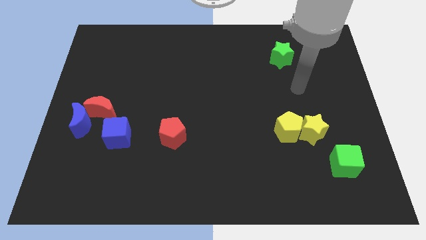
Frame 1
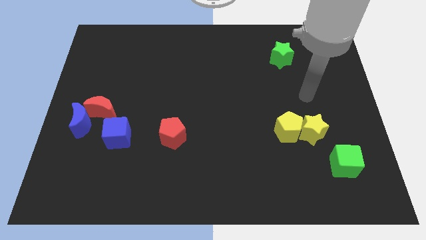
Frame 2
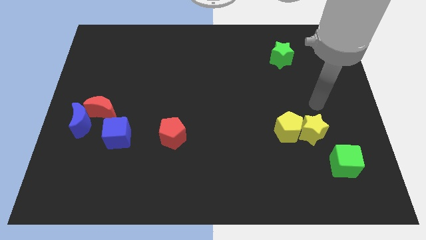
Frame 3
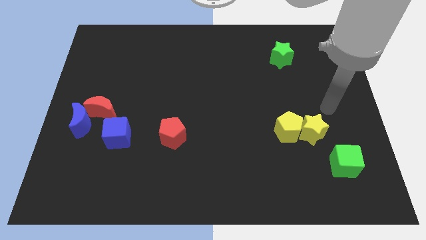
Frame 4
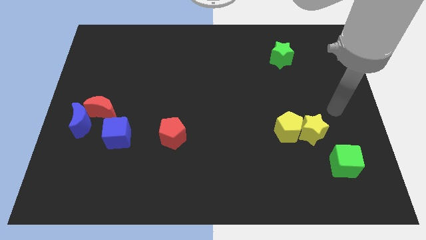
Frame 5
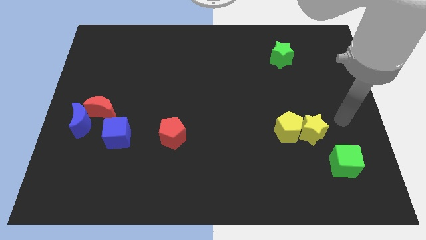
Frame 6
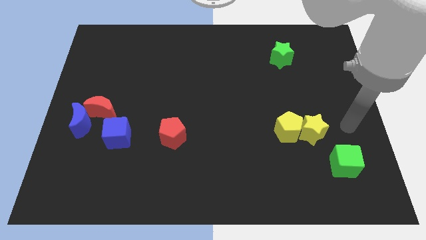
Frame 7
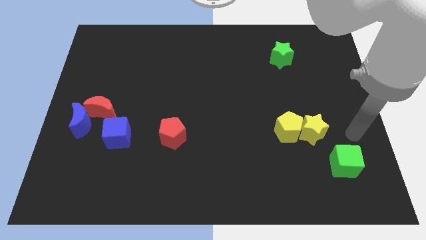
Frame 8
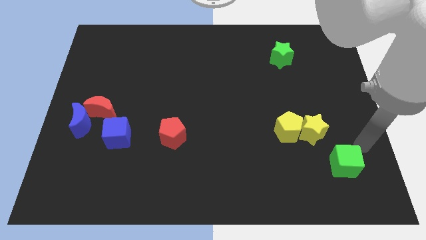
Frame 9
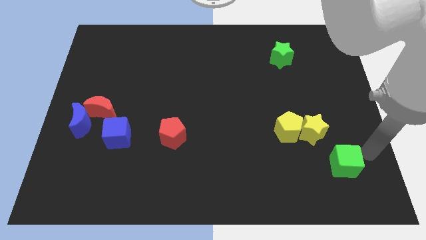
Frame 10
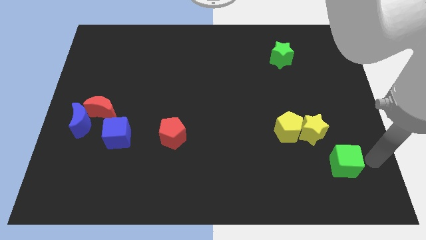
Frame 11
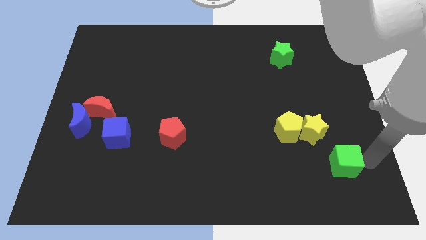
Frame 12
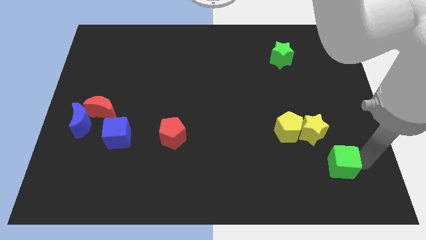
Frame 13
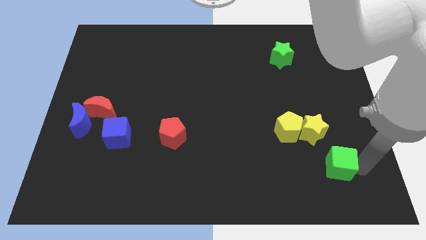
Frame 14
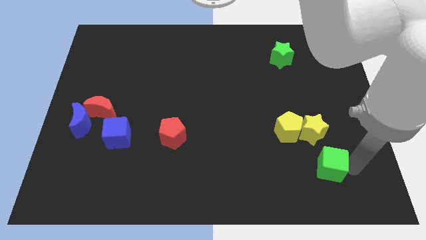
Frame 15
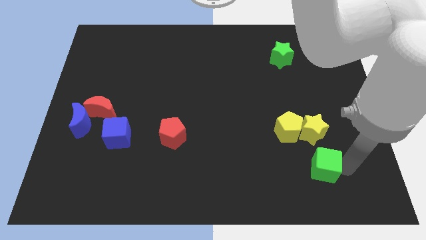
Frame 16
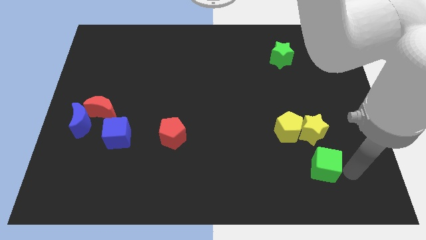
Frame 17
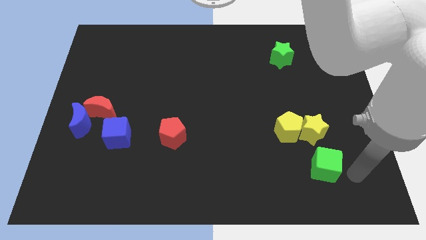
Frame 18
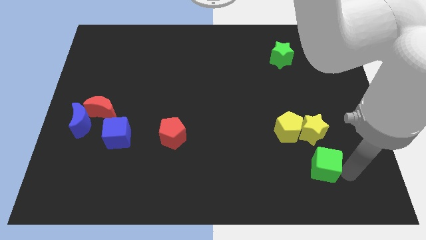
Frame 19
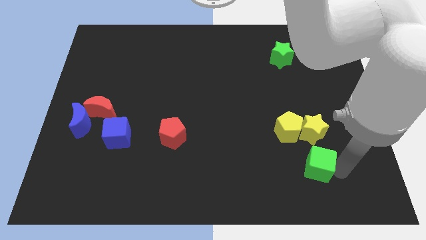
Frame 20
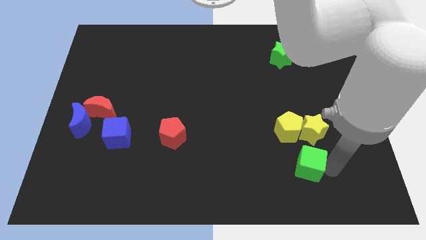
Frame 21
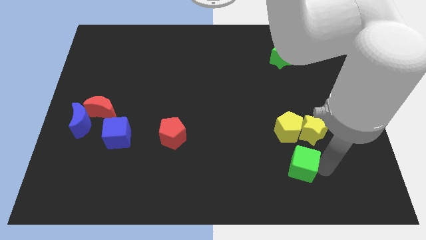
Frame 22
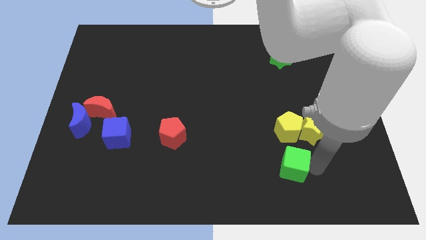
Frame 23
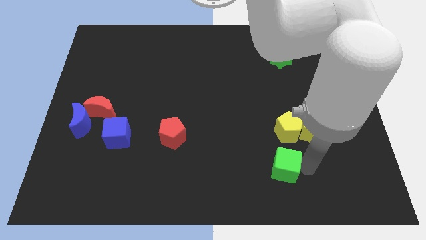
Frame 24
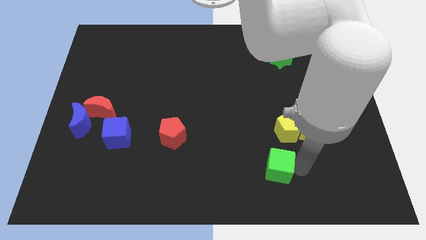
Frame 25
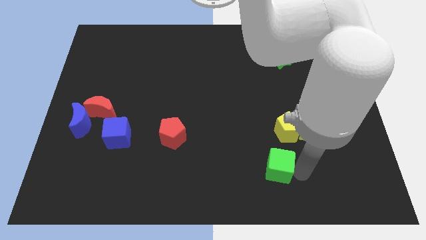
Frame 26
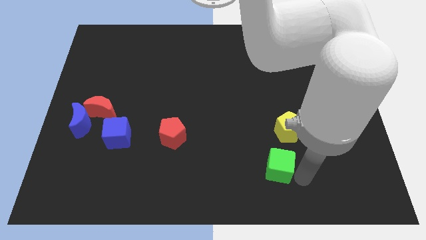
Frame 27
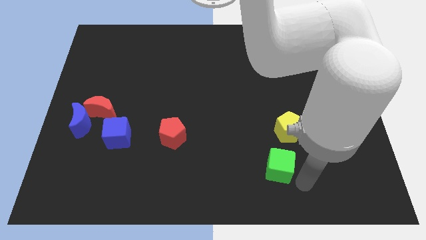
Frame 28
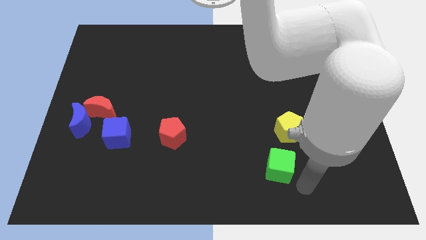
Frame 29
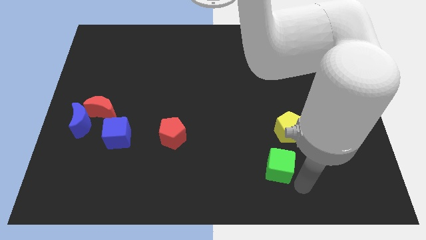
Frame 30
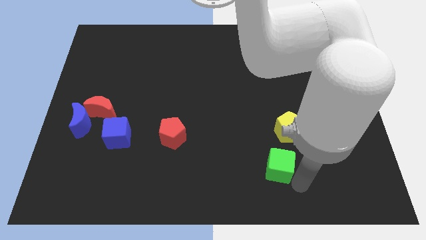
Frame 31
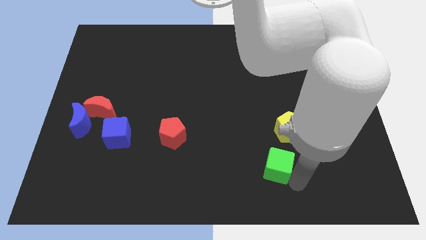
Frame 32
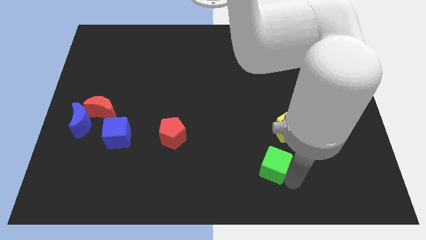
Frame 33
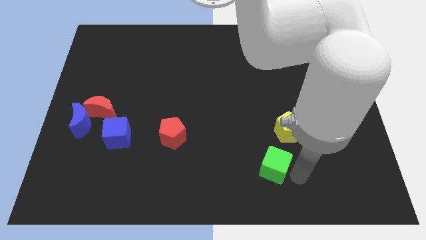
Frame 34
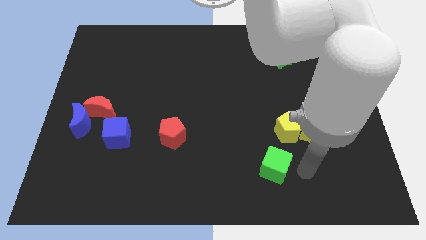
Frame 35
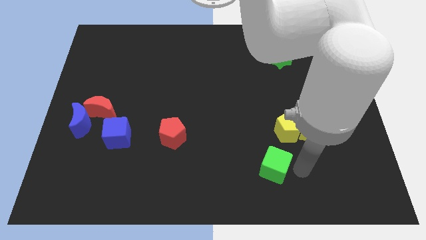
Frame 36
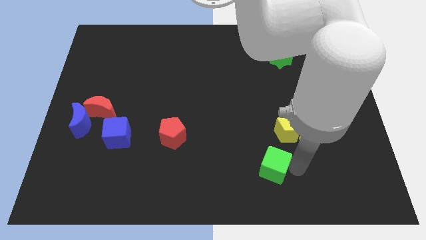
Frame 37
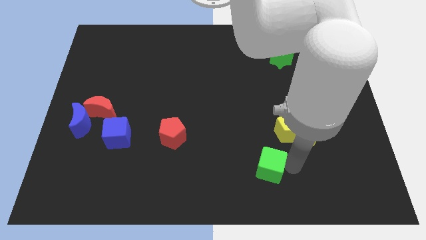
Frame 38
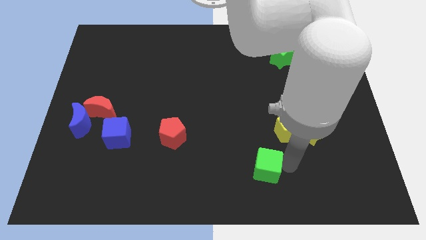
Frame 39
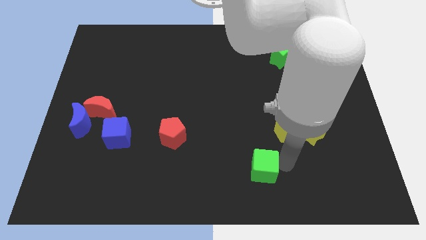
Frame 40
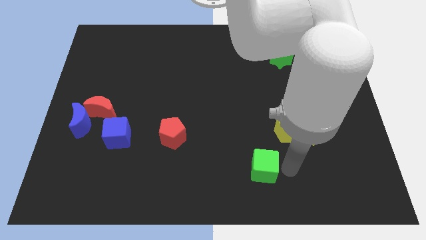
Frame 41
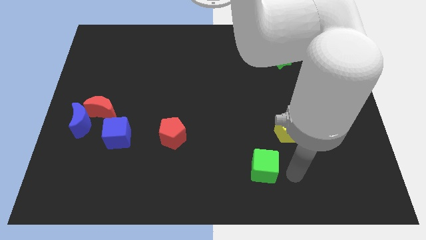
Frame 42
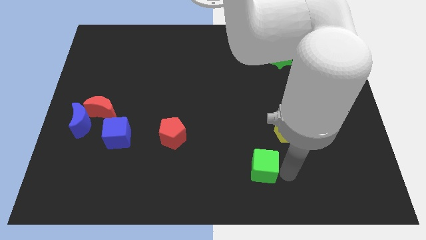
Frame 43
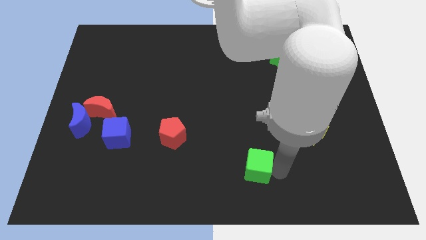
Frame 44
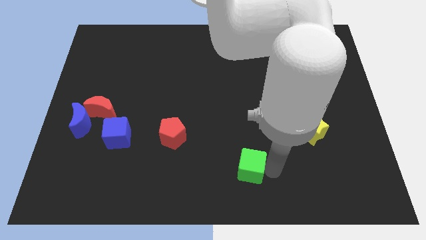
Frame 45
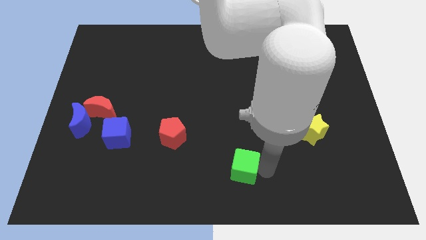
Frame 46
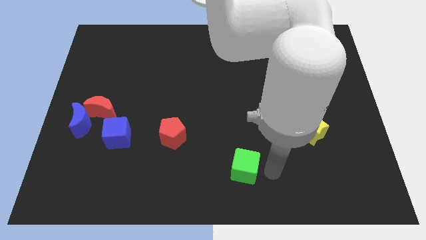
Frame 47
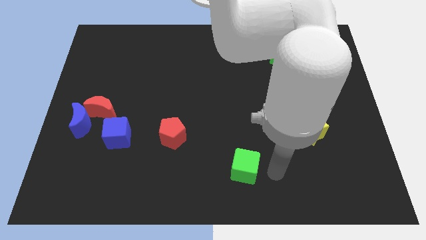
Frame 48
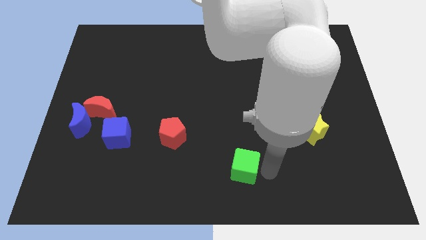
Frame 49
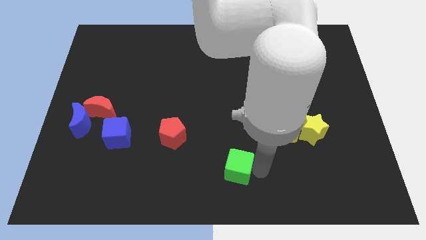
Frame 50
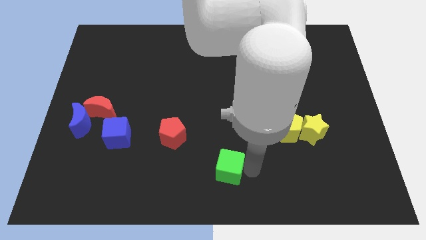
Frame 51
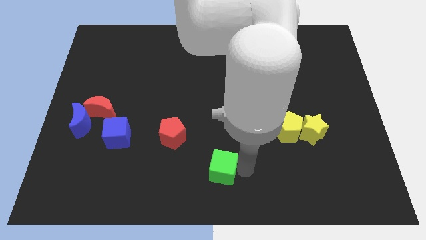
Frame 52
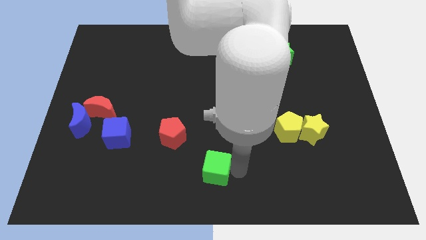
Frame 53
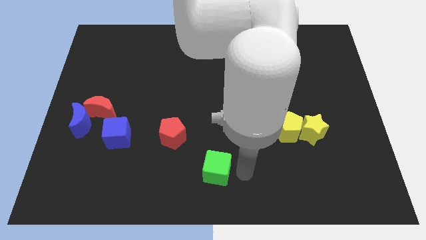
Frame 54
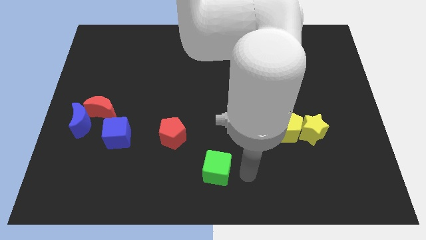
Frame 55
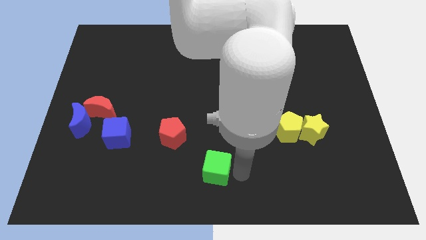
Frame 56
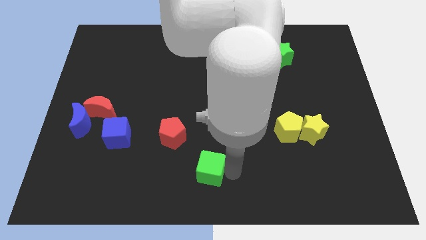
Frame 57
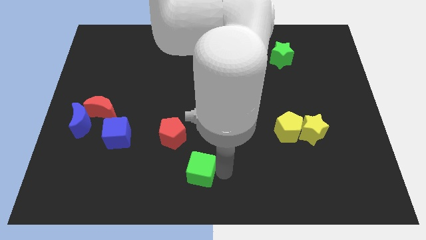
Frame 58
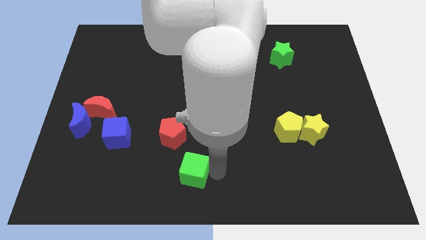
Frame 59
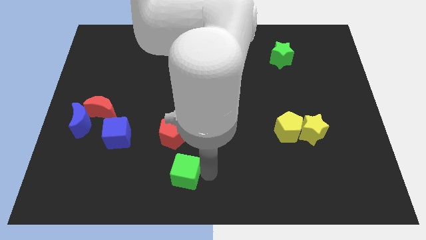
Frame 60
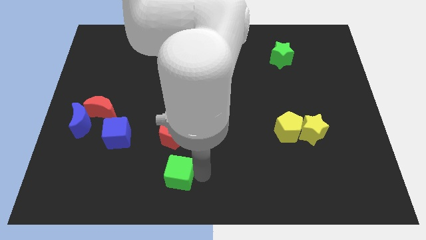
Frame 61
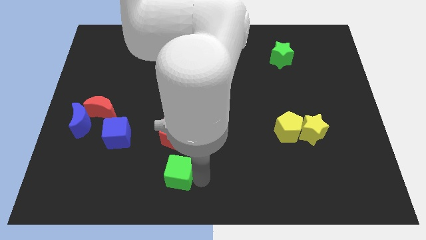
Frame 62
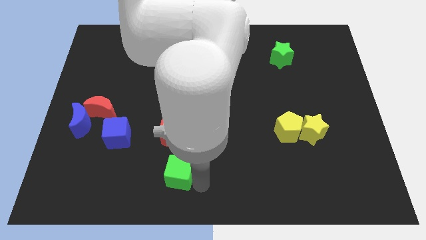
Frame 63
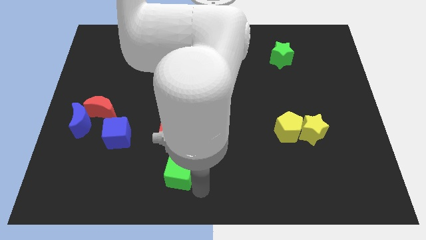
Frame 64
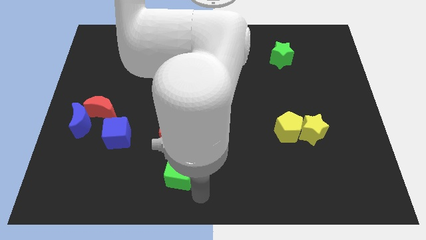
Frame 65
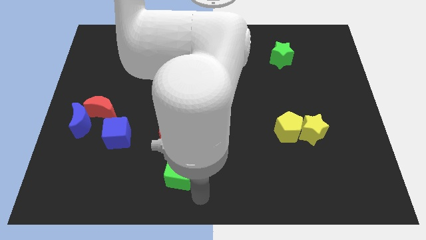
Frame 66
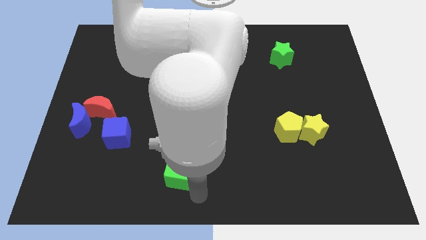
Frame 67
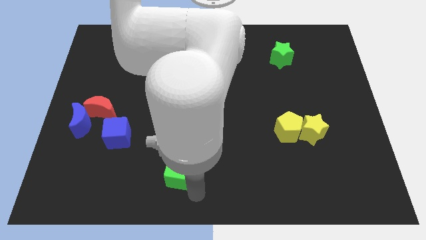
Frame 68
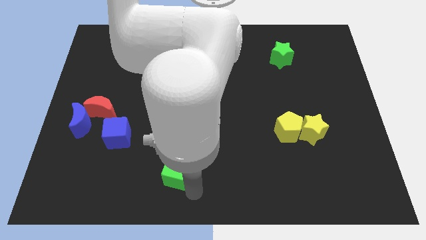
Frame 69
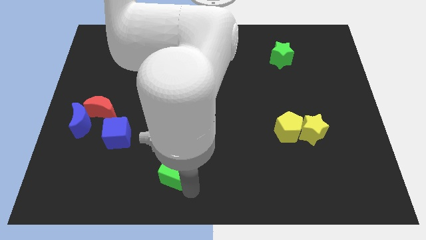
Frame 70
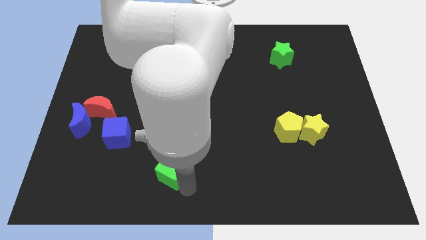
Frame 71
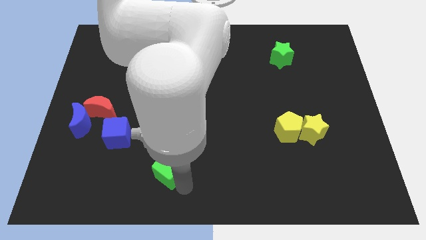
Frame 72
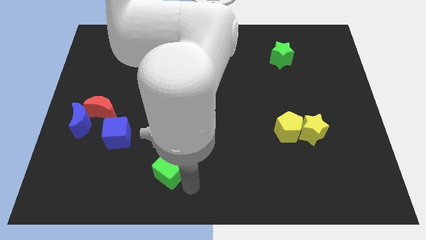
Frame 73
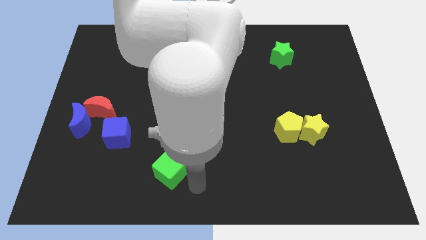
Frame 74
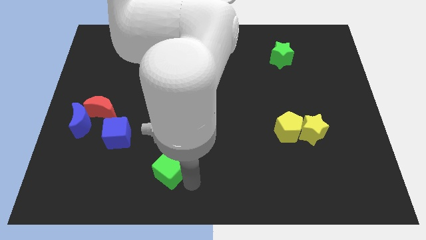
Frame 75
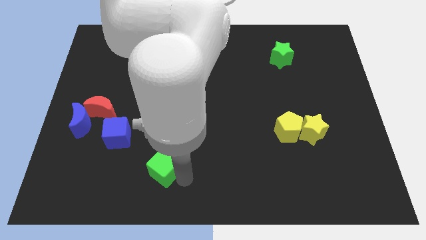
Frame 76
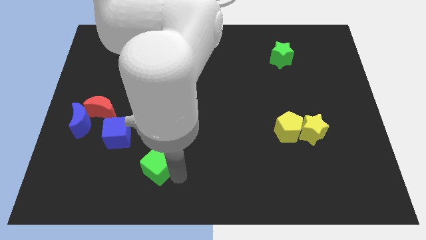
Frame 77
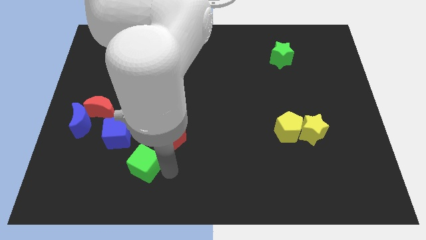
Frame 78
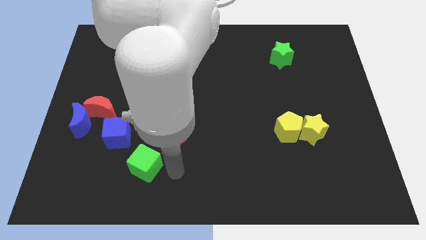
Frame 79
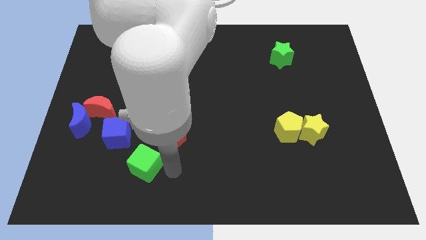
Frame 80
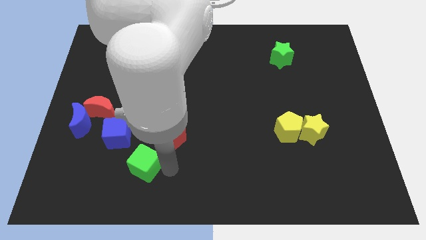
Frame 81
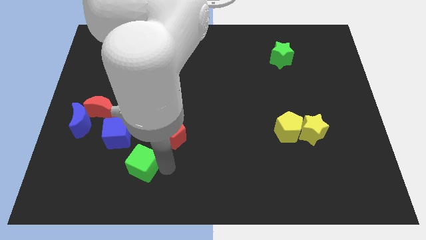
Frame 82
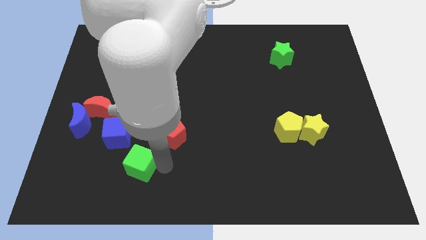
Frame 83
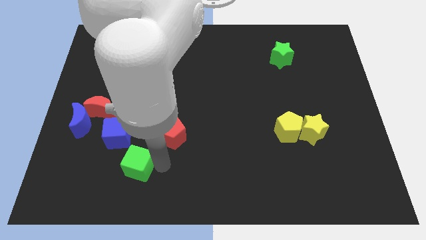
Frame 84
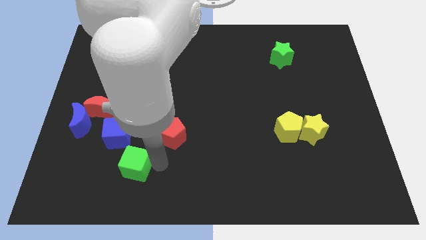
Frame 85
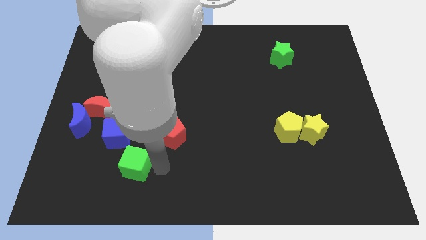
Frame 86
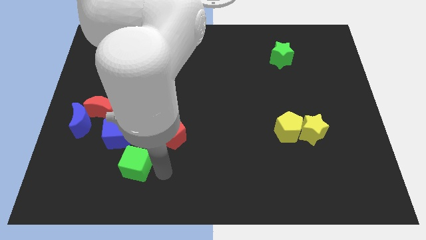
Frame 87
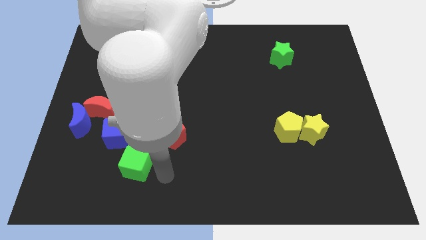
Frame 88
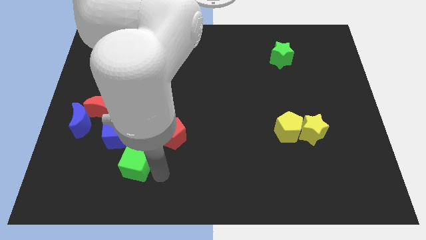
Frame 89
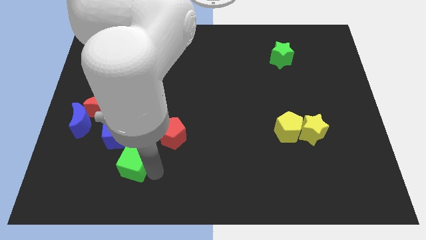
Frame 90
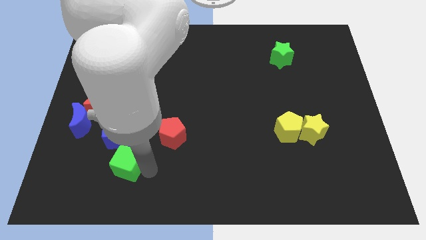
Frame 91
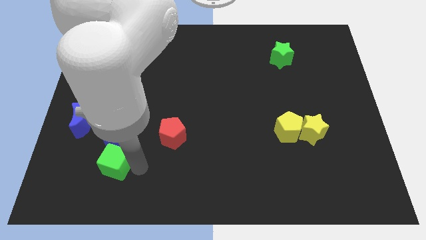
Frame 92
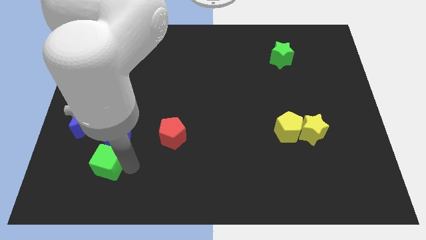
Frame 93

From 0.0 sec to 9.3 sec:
move the green cube diagonally down and to the left of the blue cube
